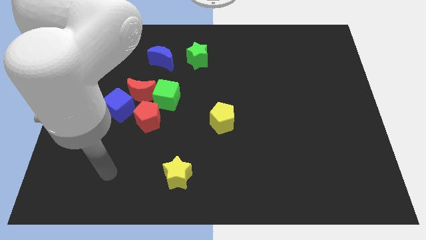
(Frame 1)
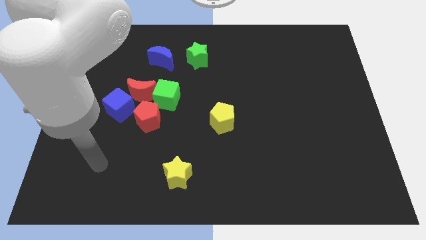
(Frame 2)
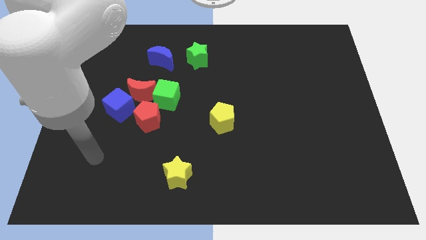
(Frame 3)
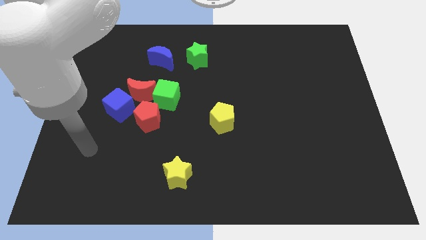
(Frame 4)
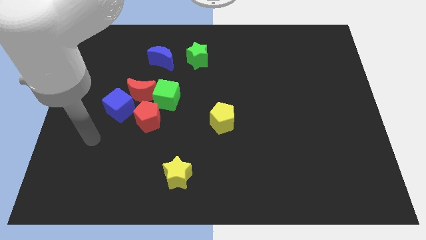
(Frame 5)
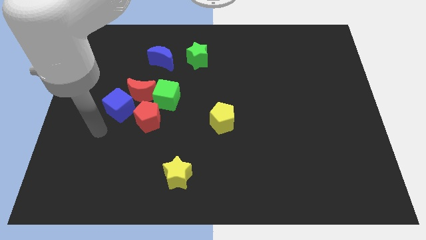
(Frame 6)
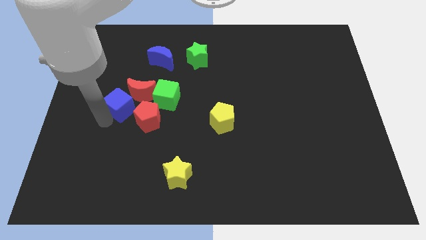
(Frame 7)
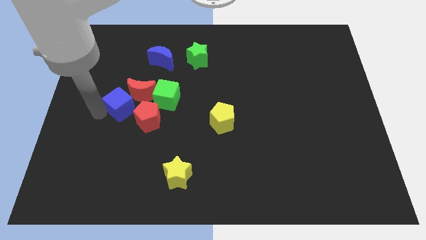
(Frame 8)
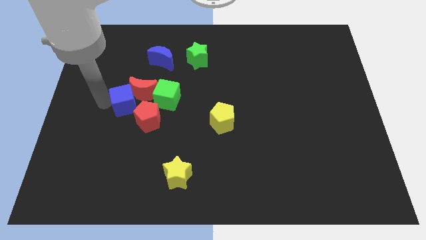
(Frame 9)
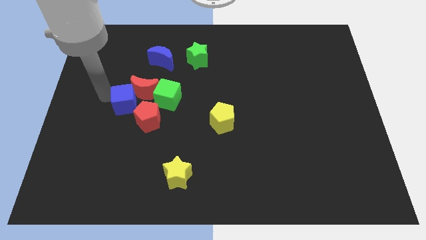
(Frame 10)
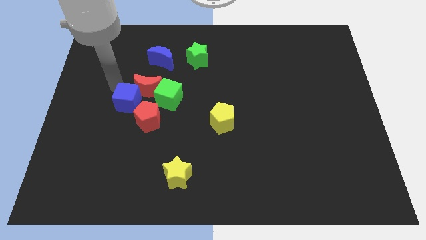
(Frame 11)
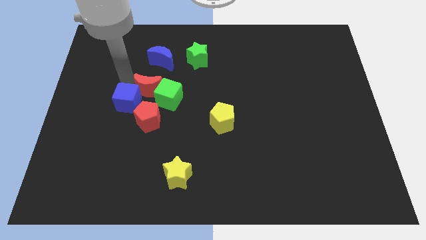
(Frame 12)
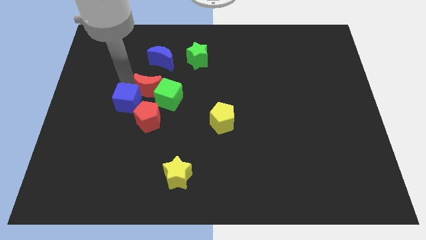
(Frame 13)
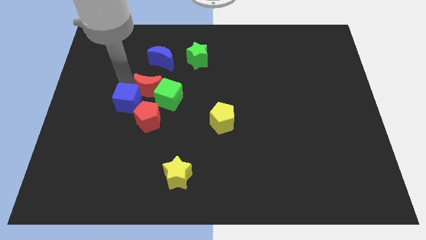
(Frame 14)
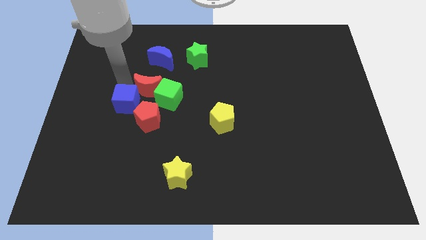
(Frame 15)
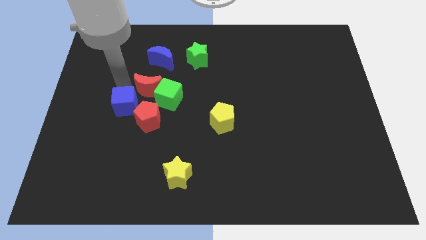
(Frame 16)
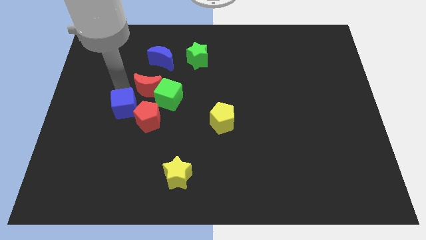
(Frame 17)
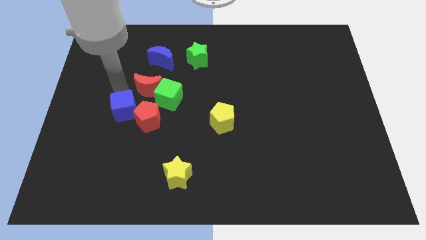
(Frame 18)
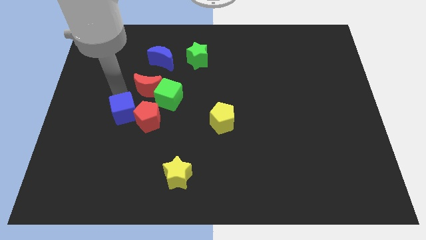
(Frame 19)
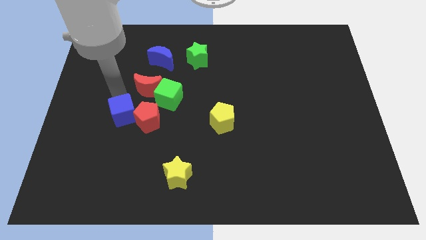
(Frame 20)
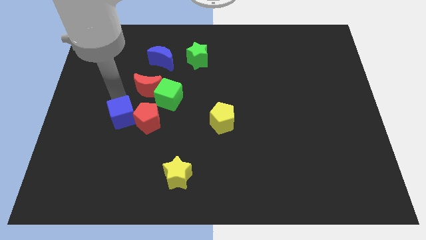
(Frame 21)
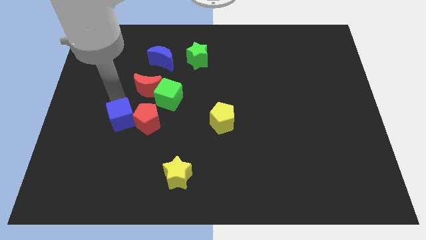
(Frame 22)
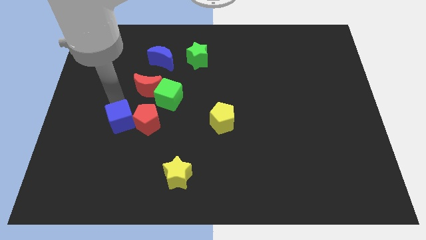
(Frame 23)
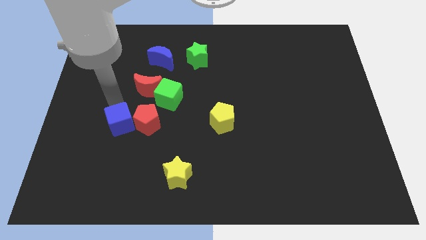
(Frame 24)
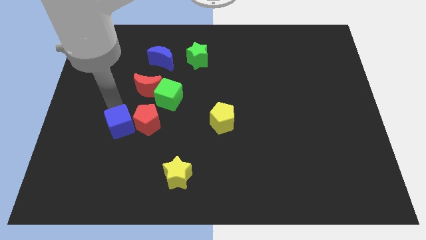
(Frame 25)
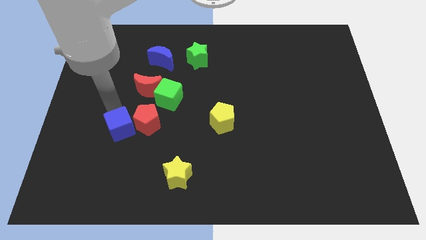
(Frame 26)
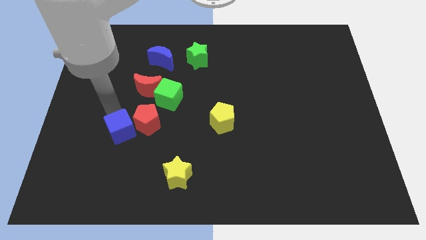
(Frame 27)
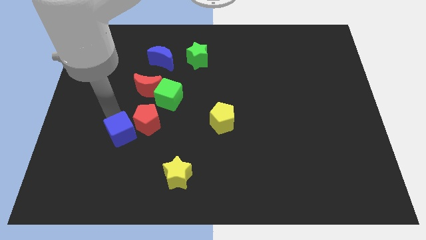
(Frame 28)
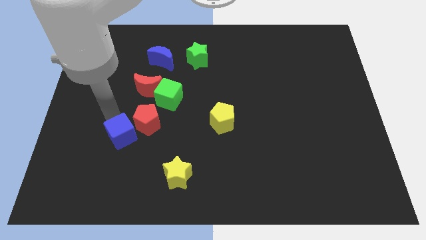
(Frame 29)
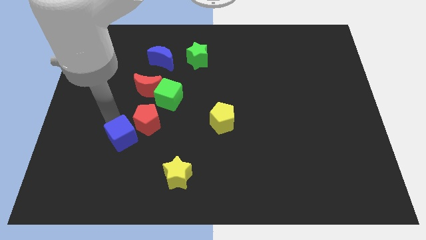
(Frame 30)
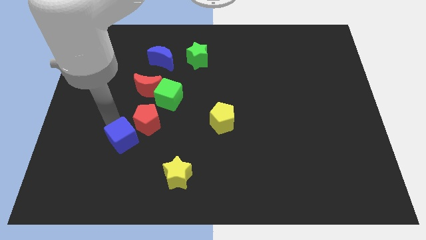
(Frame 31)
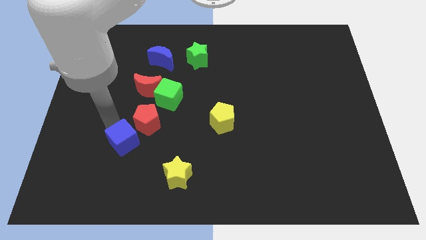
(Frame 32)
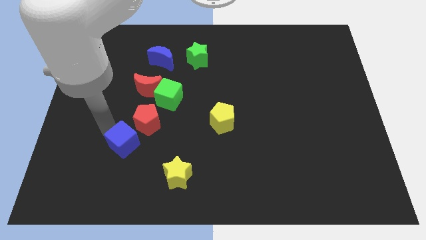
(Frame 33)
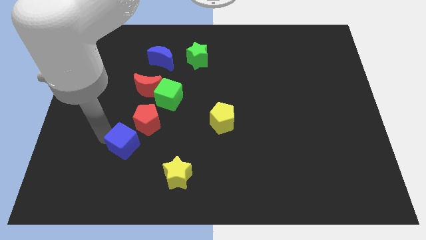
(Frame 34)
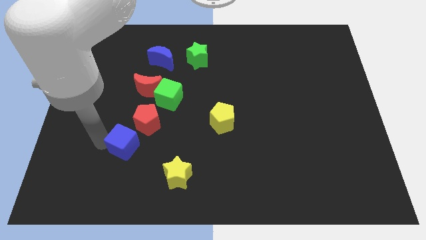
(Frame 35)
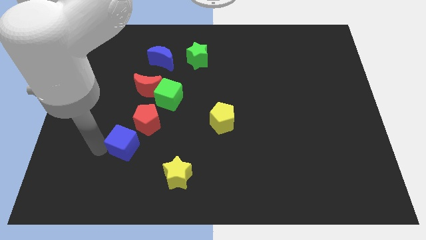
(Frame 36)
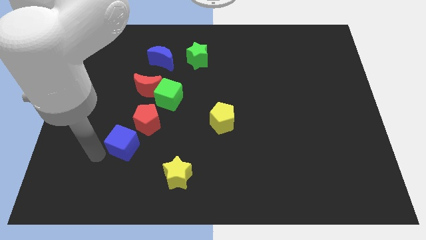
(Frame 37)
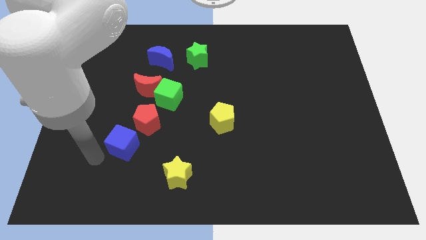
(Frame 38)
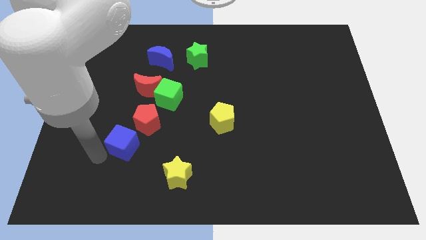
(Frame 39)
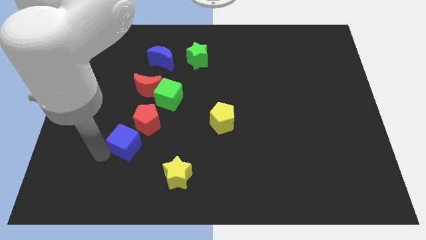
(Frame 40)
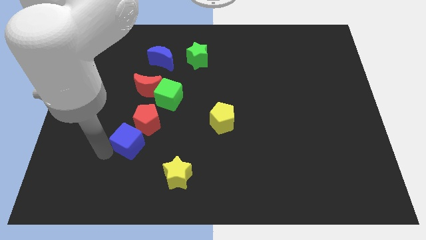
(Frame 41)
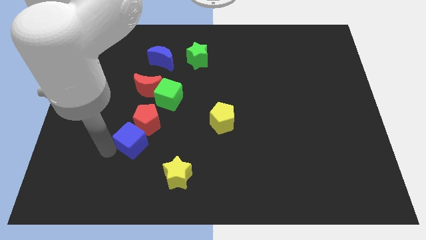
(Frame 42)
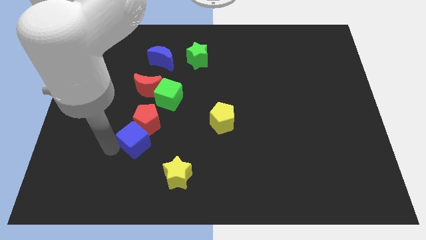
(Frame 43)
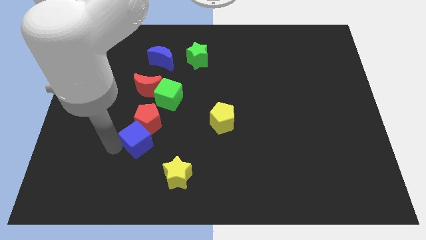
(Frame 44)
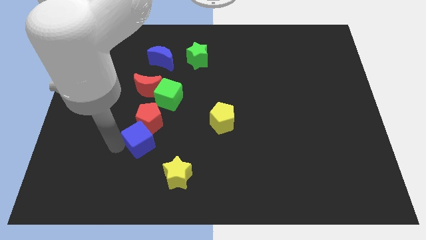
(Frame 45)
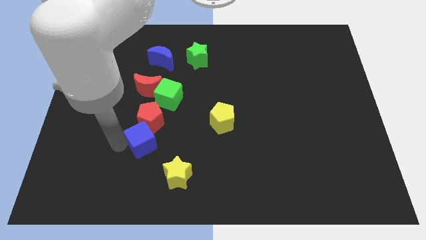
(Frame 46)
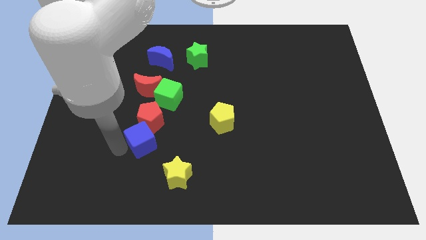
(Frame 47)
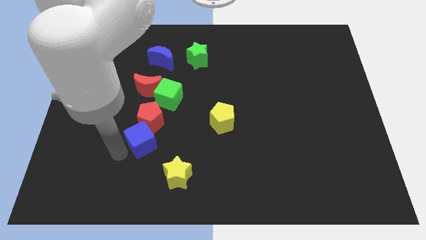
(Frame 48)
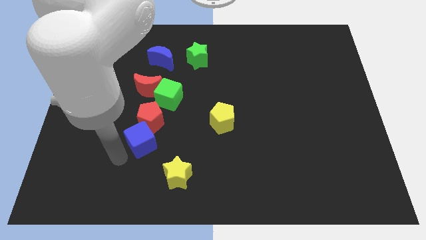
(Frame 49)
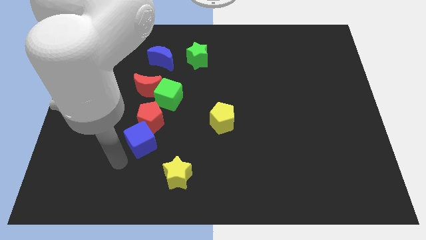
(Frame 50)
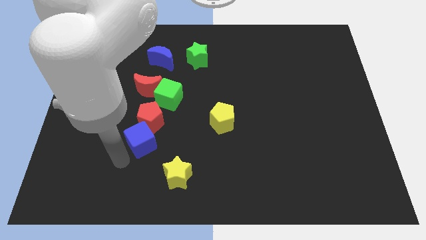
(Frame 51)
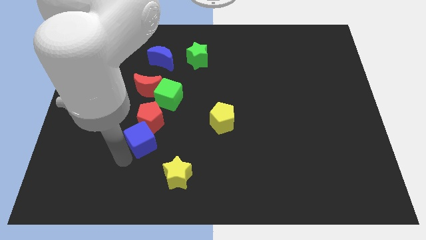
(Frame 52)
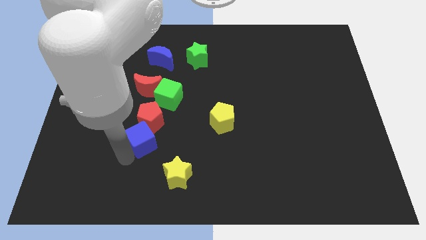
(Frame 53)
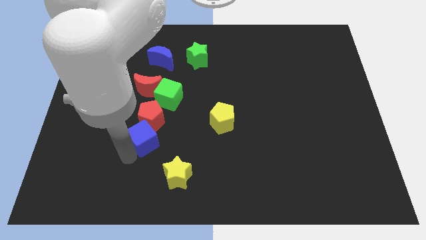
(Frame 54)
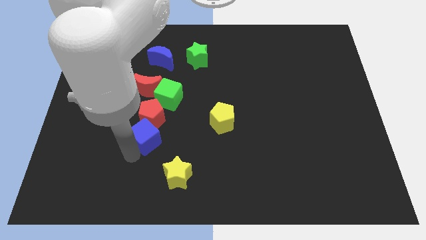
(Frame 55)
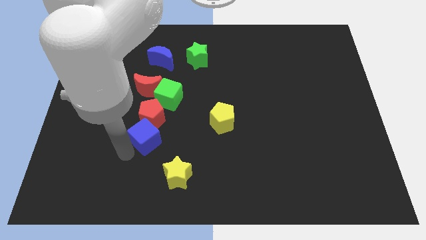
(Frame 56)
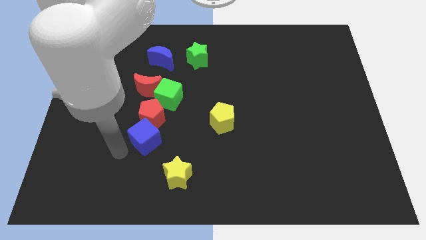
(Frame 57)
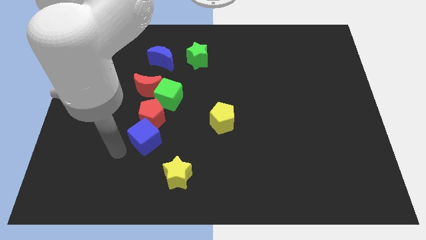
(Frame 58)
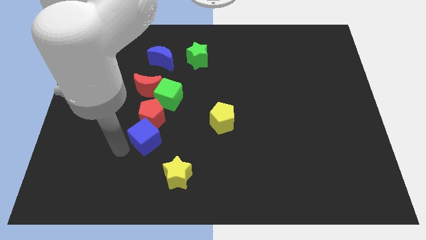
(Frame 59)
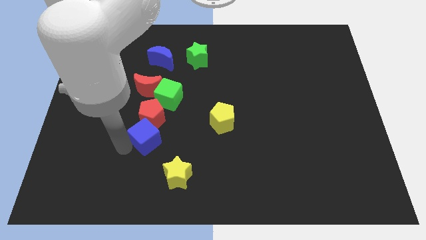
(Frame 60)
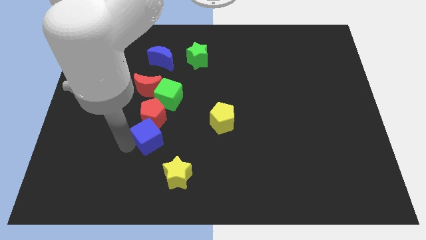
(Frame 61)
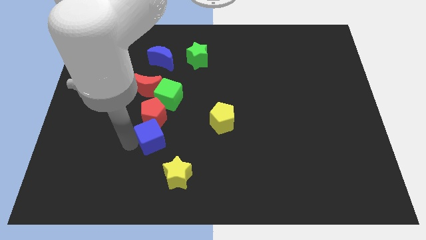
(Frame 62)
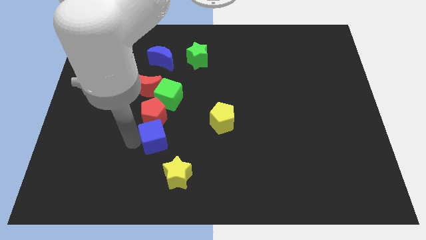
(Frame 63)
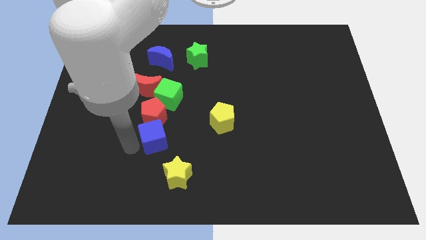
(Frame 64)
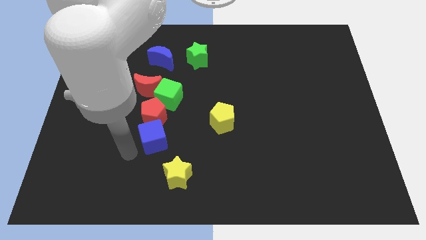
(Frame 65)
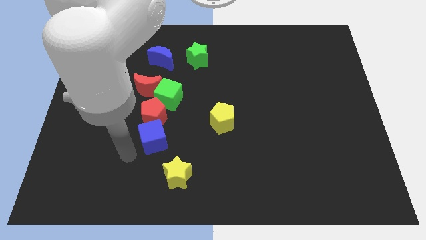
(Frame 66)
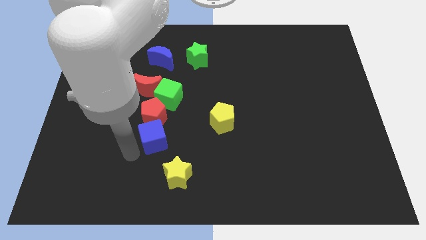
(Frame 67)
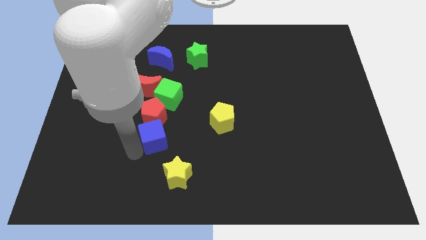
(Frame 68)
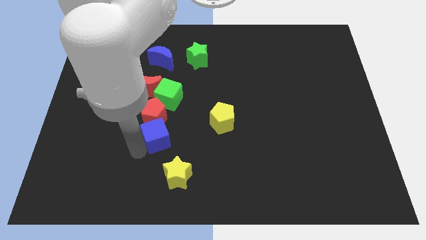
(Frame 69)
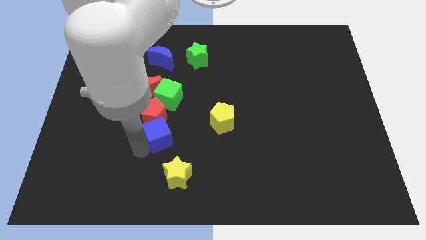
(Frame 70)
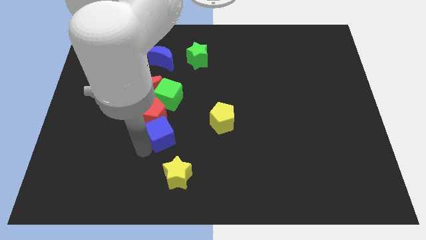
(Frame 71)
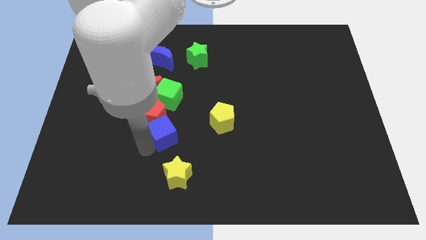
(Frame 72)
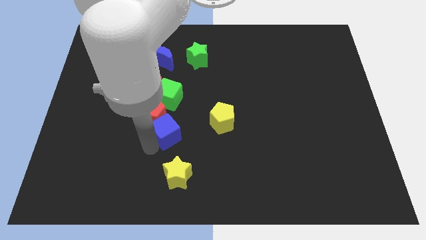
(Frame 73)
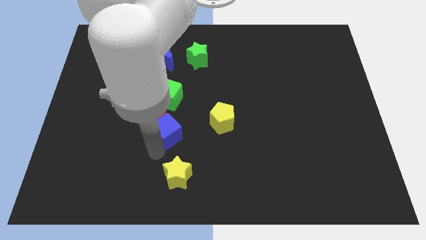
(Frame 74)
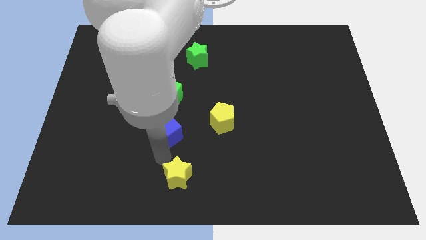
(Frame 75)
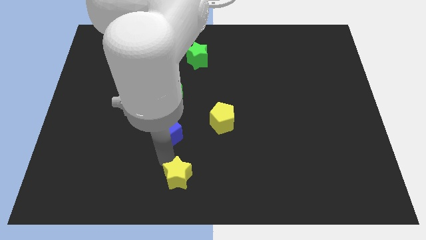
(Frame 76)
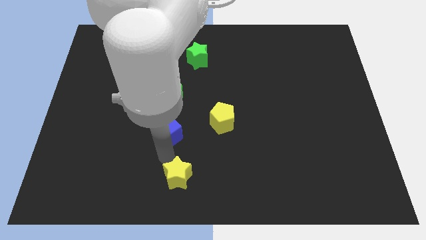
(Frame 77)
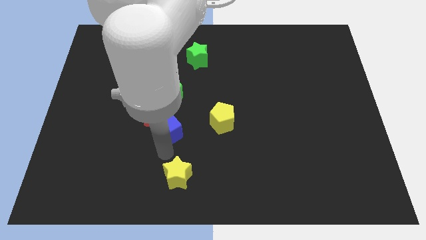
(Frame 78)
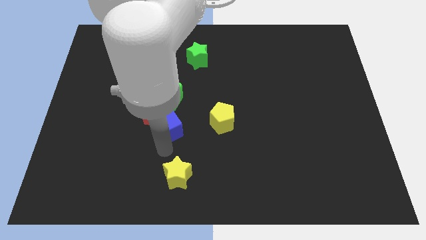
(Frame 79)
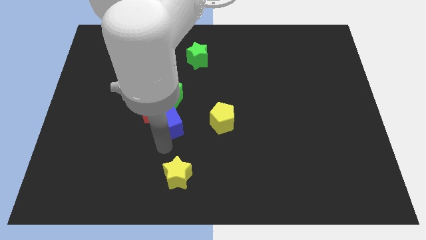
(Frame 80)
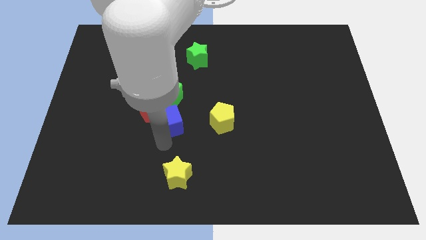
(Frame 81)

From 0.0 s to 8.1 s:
slide the blue cube to the bottom right side of the red moon
